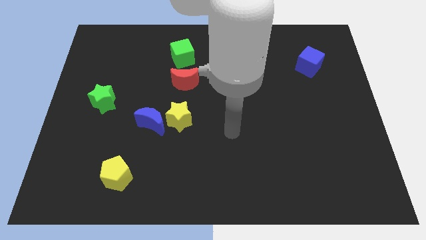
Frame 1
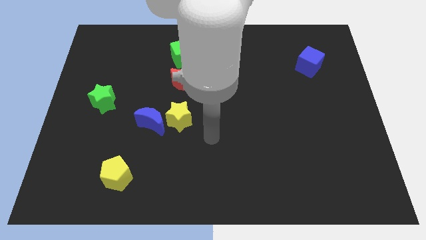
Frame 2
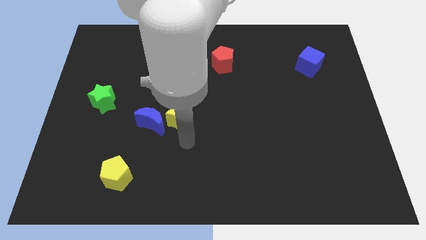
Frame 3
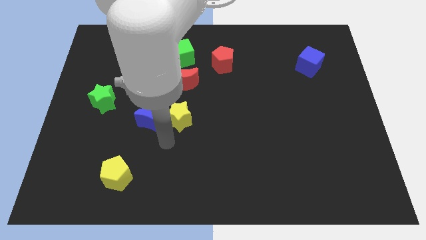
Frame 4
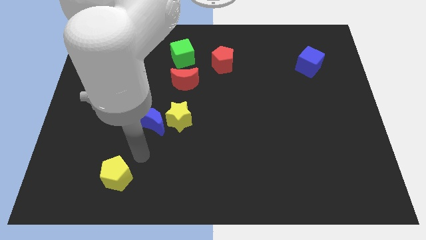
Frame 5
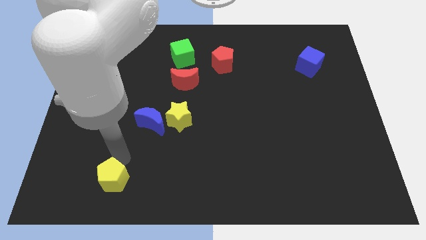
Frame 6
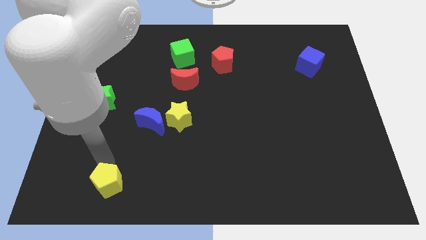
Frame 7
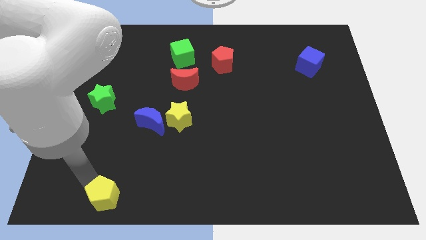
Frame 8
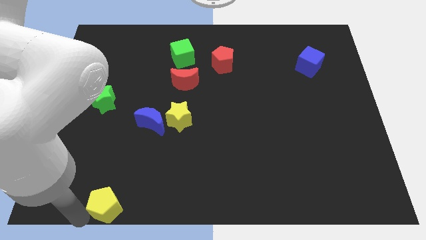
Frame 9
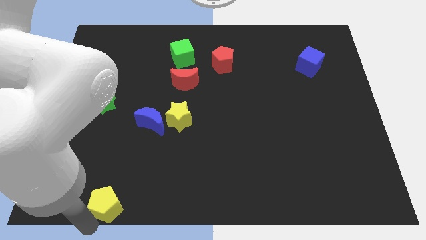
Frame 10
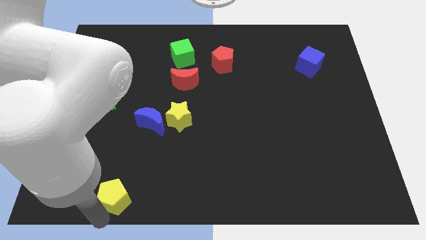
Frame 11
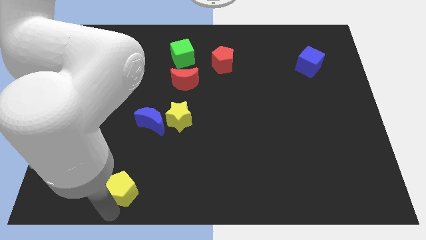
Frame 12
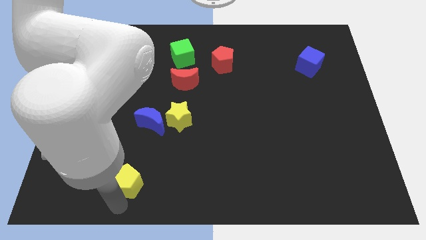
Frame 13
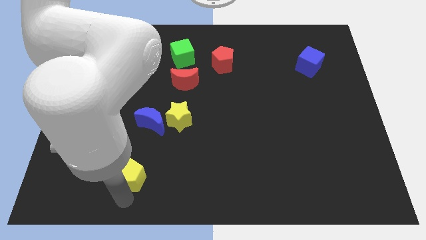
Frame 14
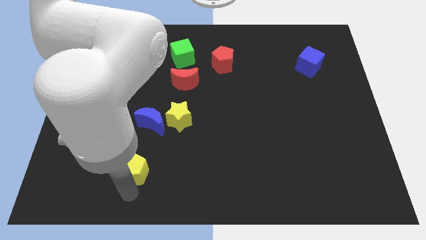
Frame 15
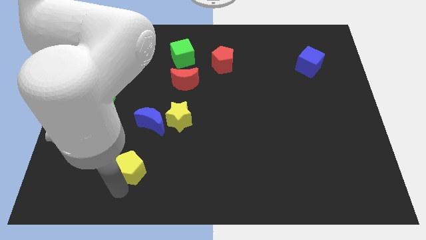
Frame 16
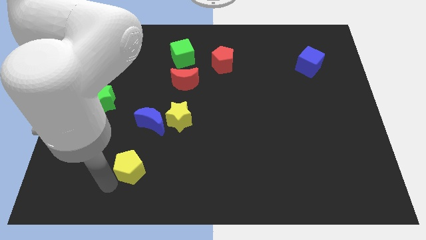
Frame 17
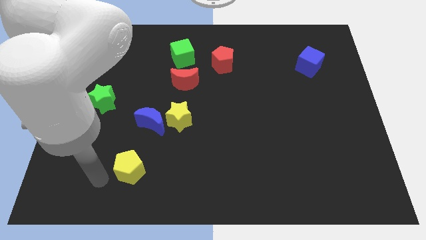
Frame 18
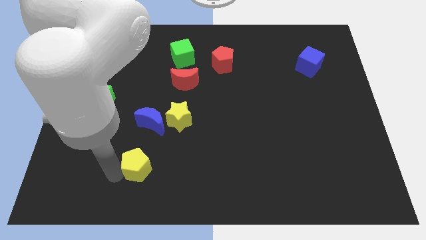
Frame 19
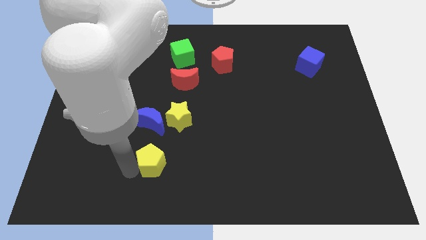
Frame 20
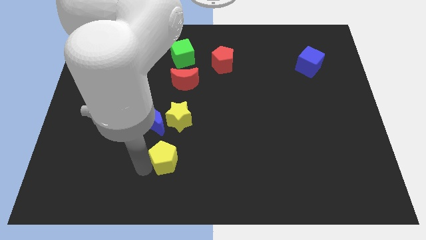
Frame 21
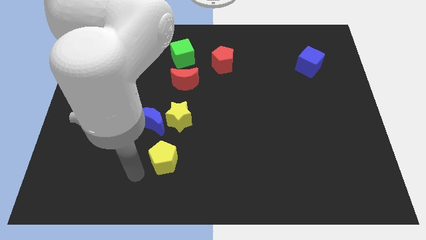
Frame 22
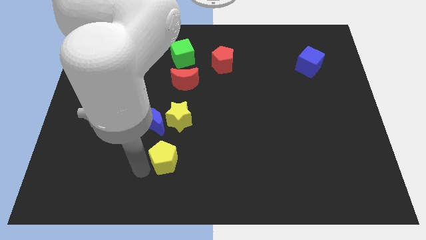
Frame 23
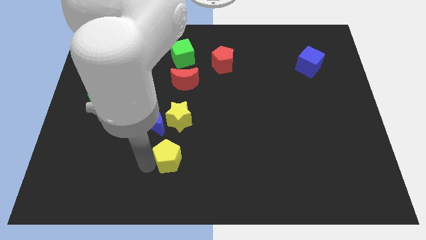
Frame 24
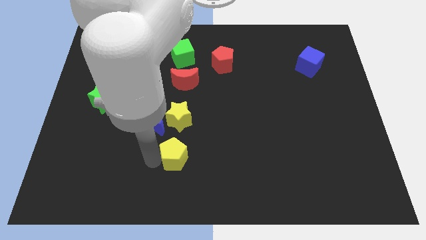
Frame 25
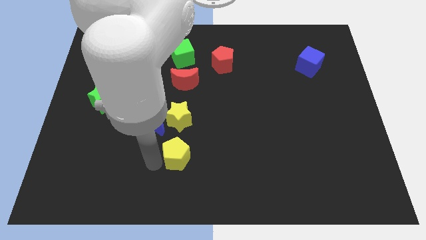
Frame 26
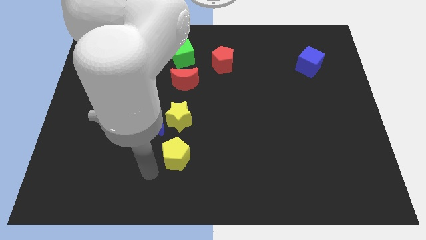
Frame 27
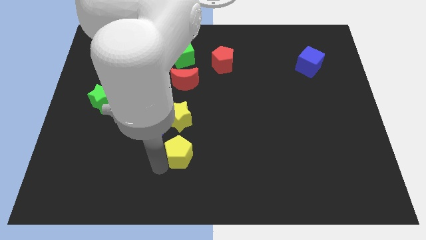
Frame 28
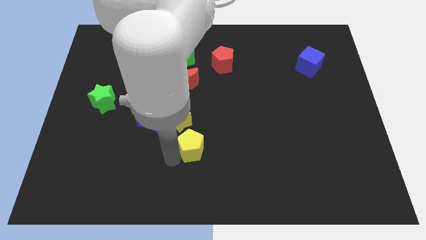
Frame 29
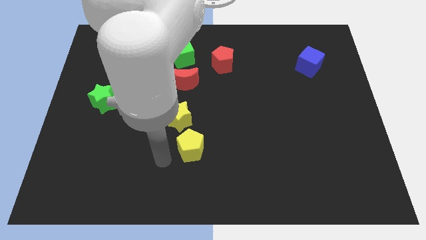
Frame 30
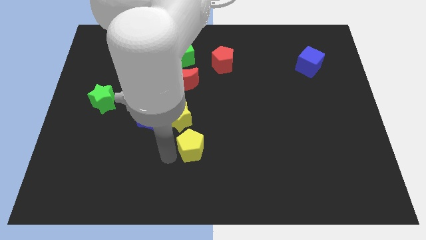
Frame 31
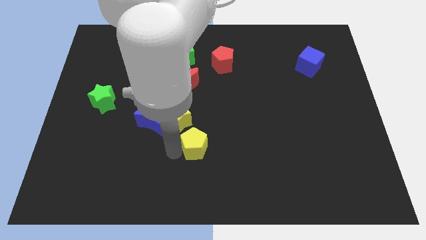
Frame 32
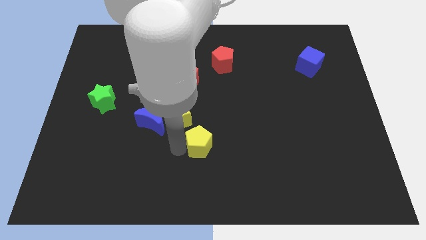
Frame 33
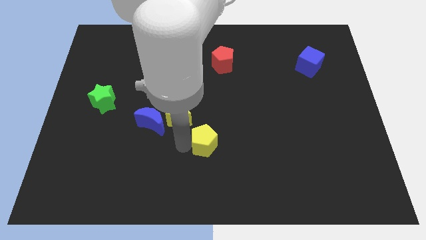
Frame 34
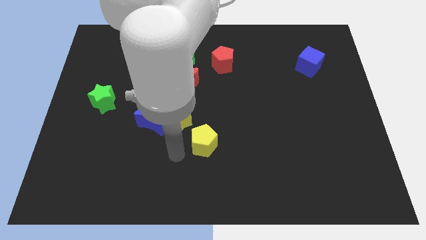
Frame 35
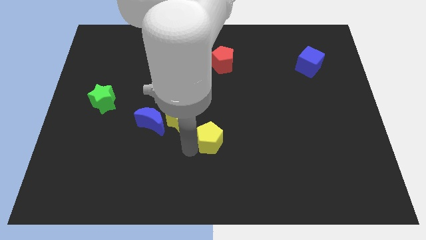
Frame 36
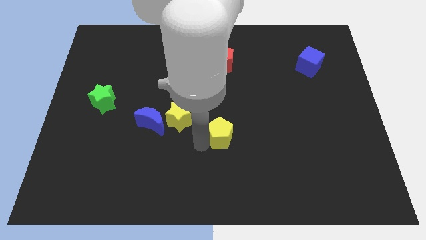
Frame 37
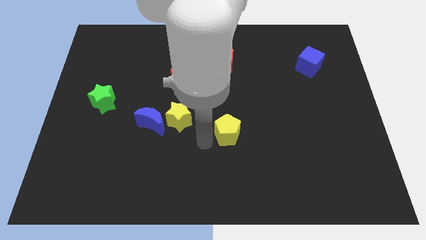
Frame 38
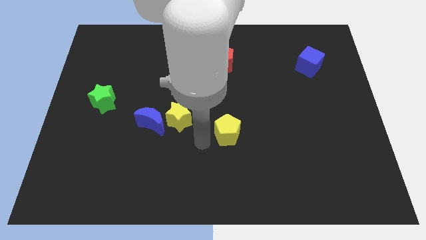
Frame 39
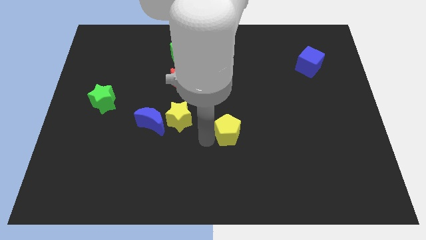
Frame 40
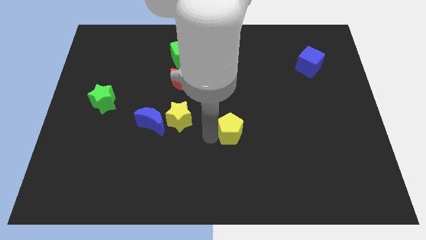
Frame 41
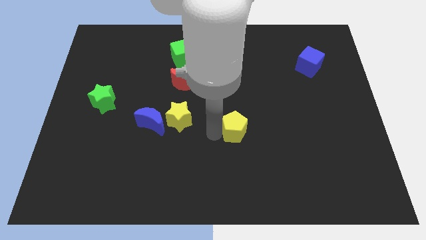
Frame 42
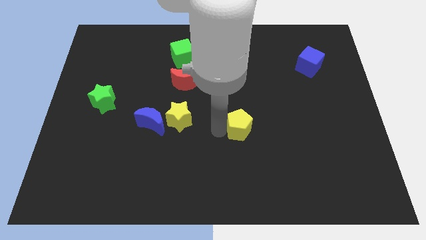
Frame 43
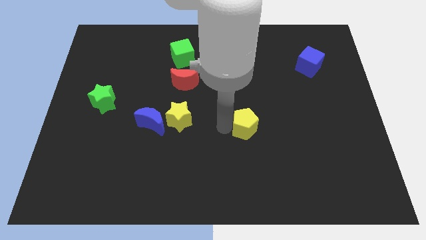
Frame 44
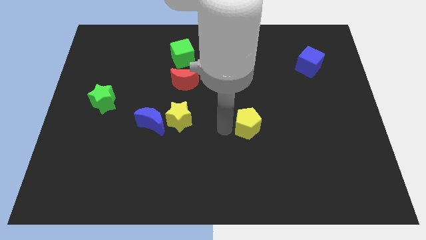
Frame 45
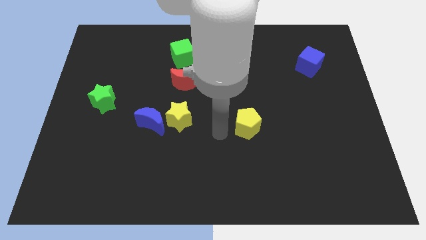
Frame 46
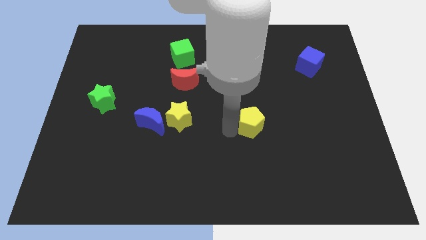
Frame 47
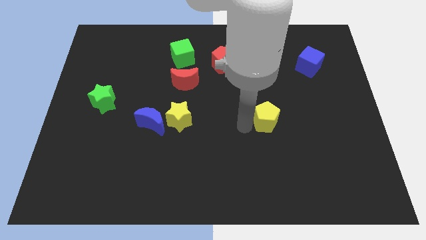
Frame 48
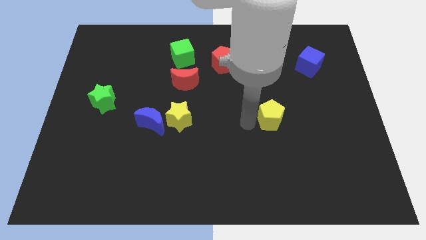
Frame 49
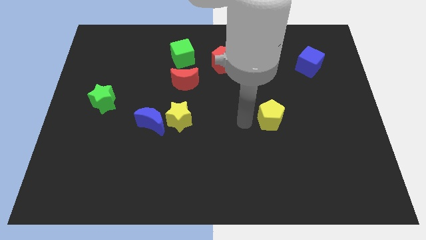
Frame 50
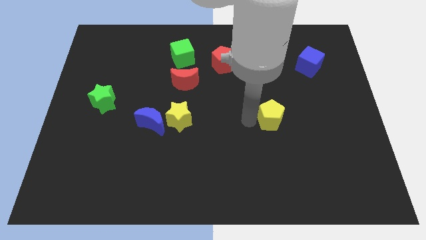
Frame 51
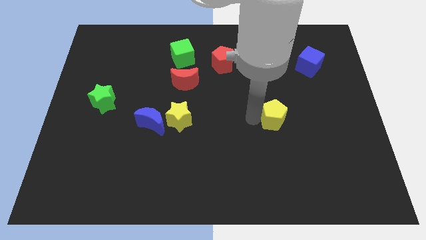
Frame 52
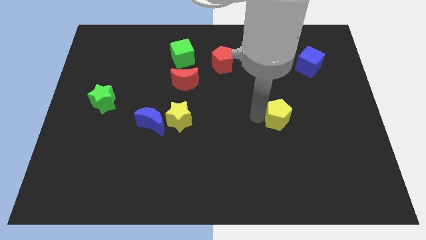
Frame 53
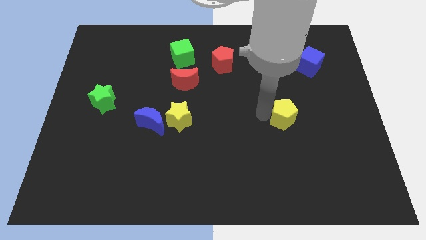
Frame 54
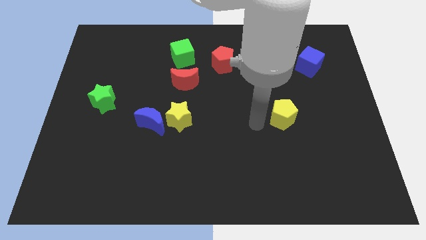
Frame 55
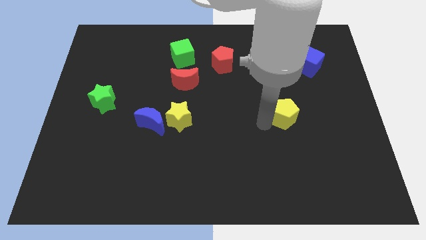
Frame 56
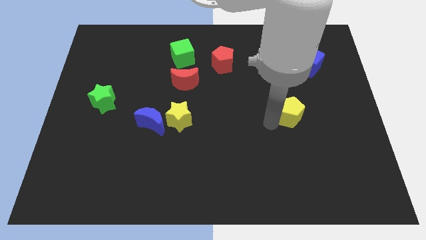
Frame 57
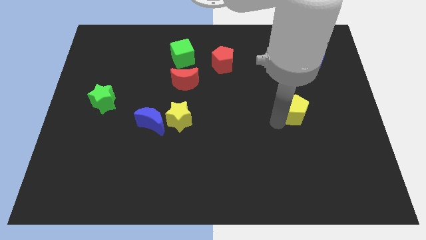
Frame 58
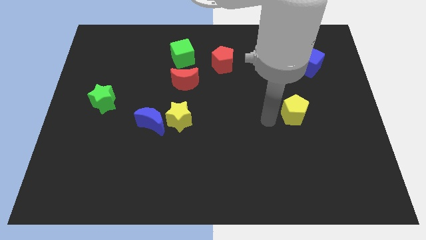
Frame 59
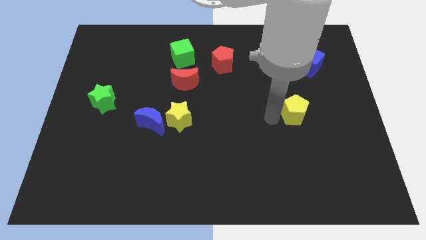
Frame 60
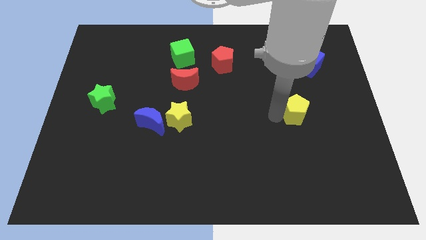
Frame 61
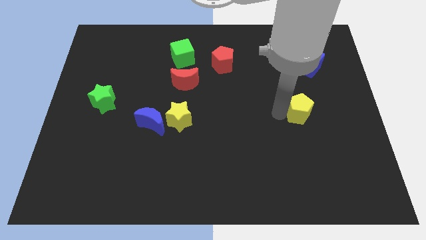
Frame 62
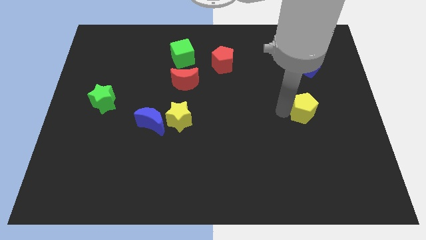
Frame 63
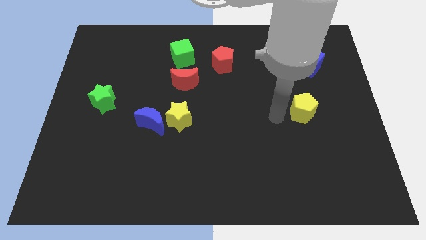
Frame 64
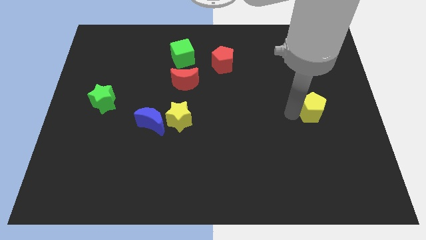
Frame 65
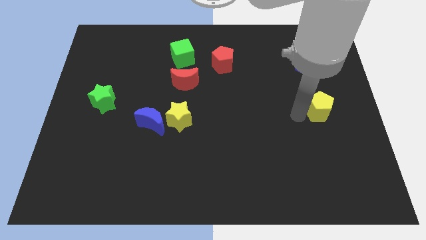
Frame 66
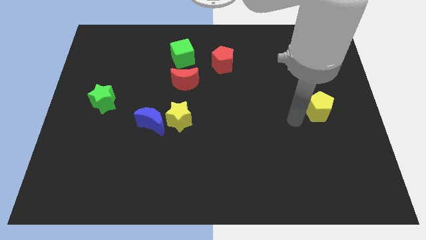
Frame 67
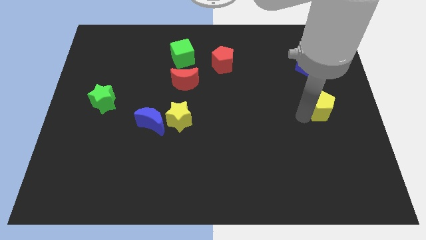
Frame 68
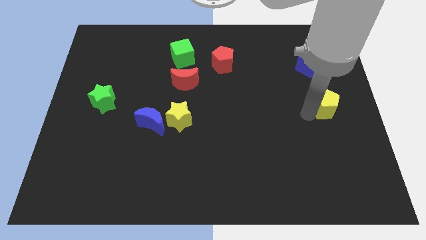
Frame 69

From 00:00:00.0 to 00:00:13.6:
slide the yellow pentagon to the right side
